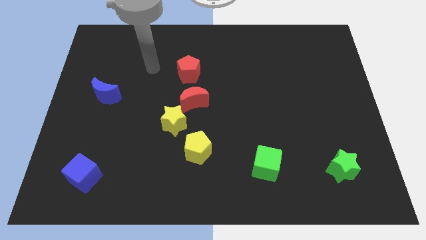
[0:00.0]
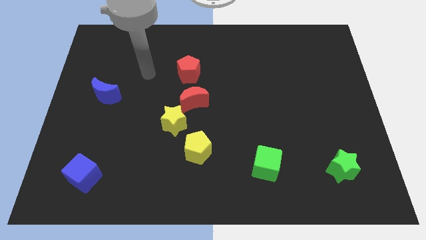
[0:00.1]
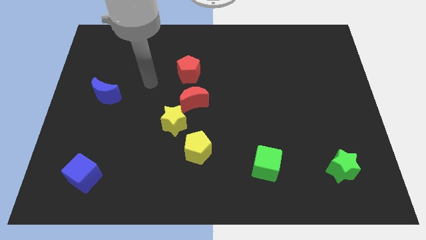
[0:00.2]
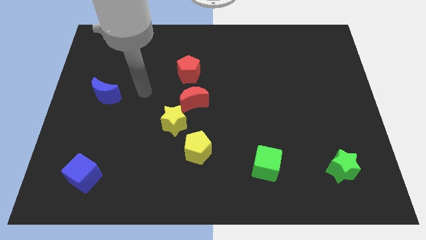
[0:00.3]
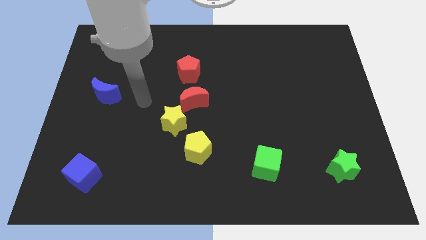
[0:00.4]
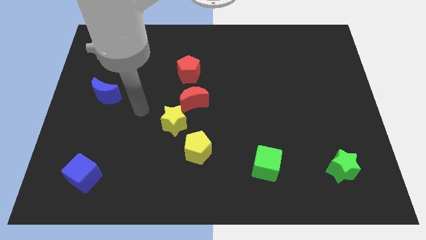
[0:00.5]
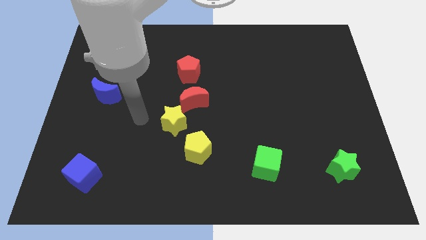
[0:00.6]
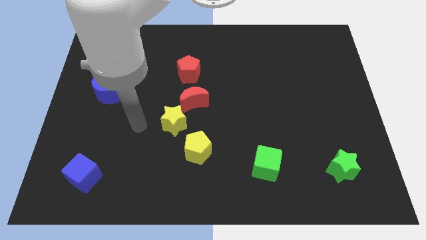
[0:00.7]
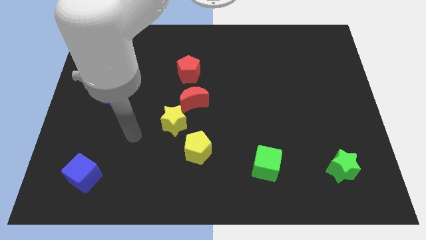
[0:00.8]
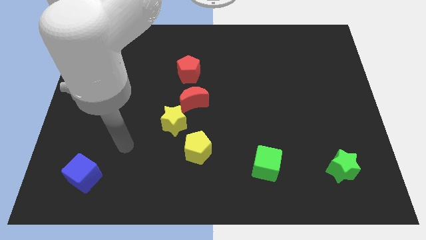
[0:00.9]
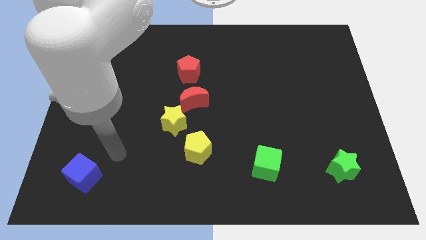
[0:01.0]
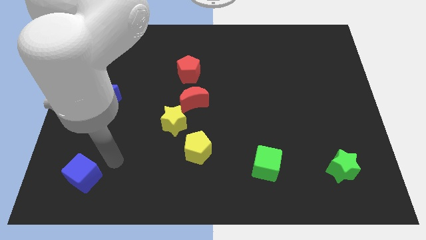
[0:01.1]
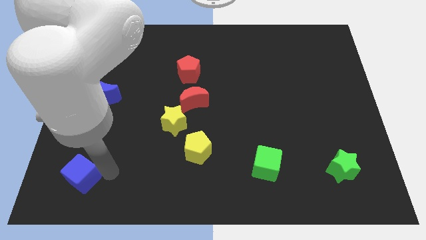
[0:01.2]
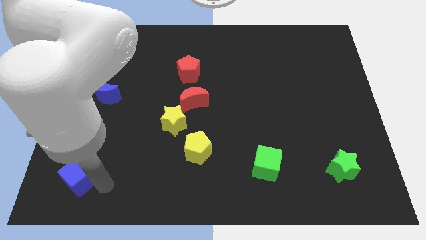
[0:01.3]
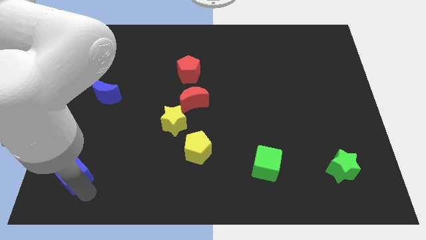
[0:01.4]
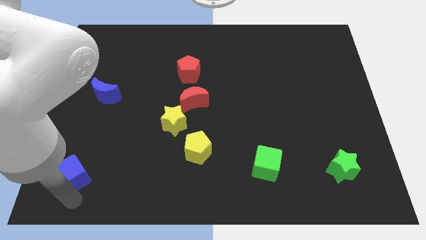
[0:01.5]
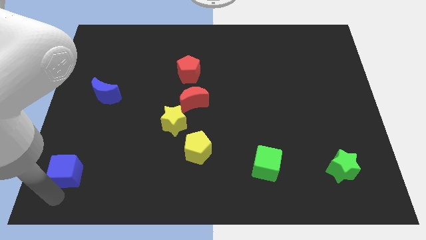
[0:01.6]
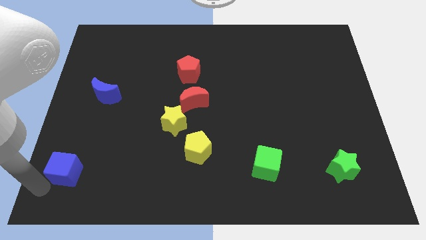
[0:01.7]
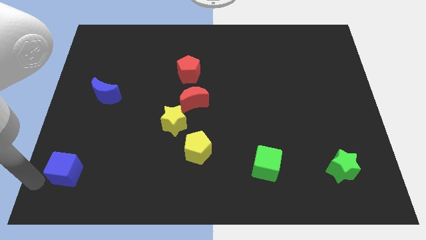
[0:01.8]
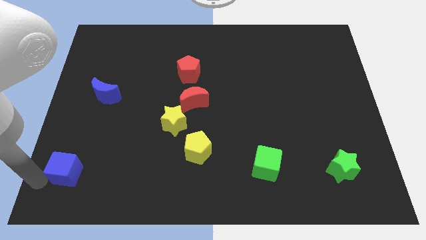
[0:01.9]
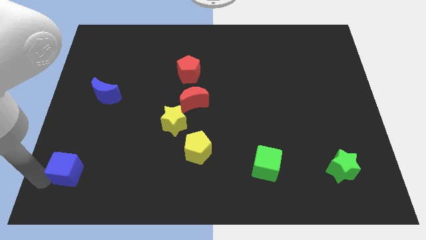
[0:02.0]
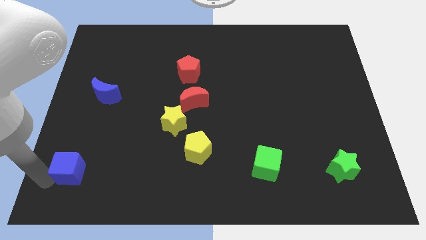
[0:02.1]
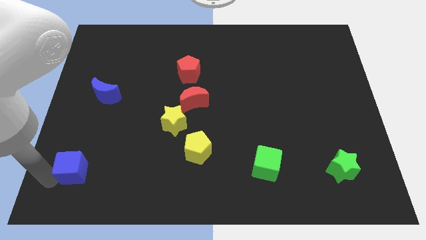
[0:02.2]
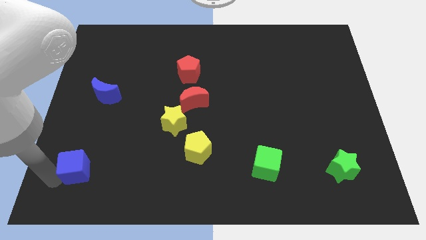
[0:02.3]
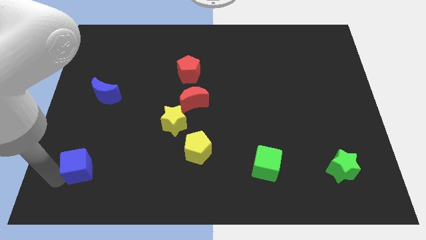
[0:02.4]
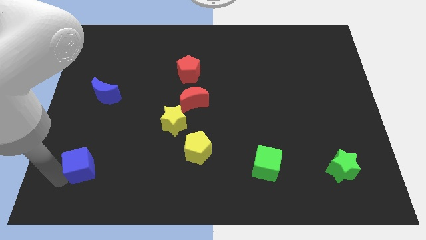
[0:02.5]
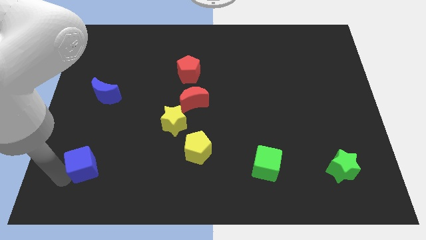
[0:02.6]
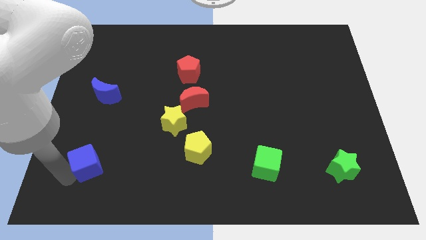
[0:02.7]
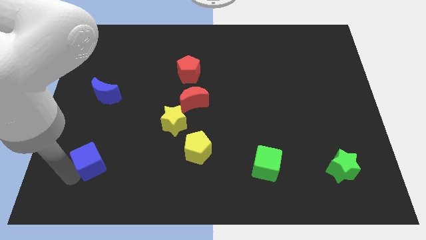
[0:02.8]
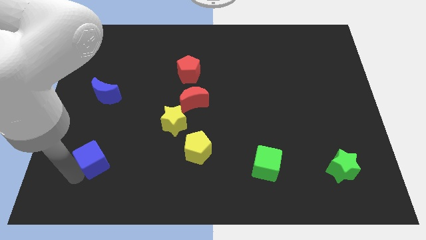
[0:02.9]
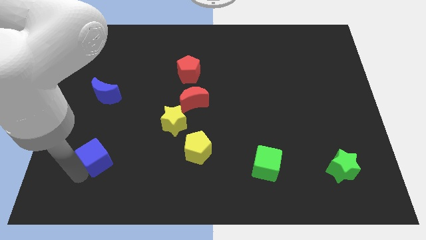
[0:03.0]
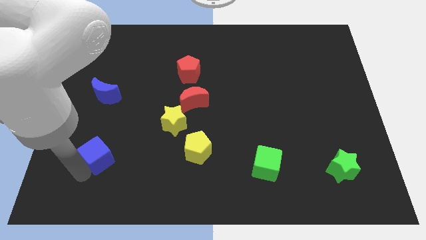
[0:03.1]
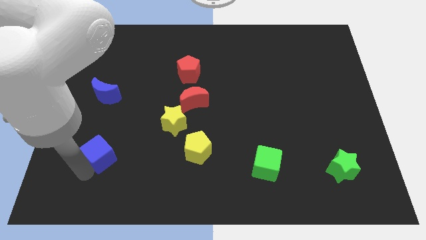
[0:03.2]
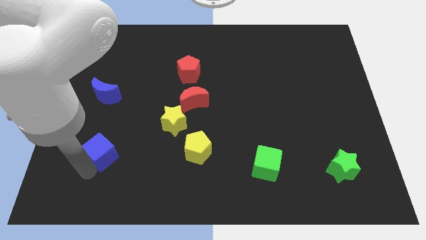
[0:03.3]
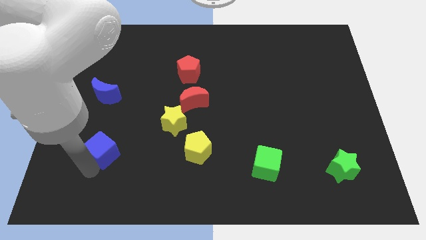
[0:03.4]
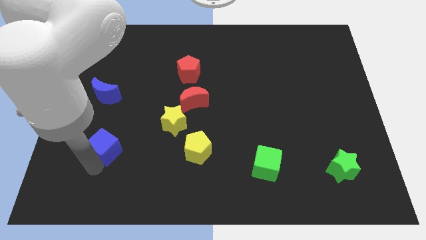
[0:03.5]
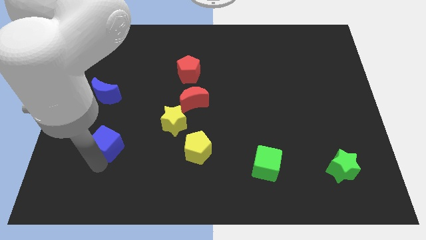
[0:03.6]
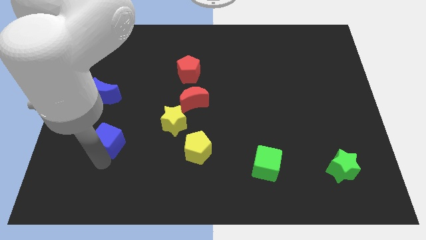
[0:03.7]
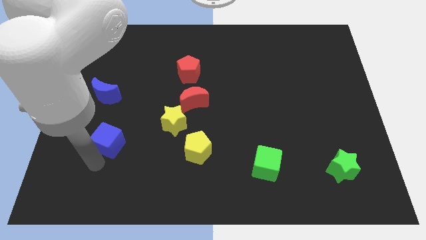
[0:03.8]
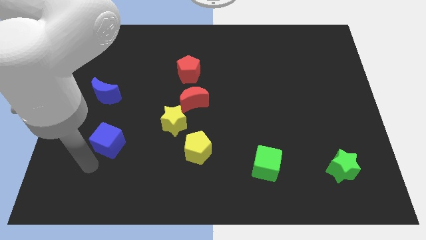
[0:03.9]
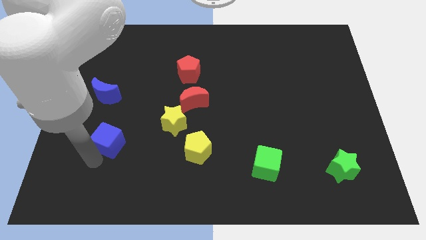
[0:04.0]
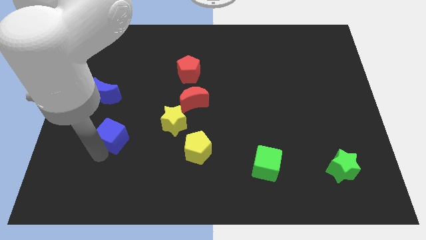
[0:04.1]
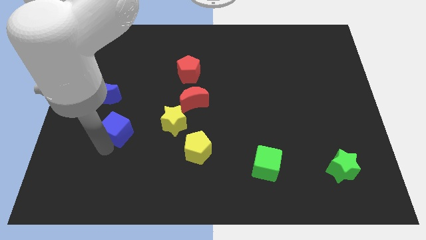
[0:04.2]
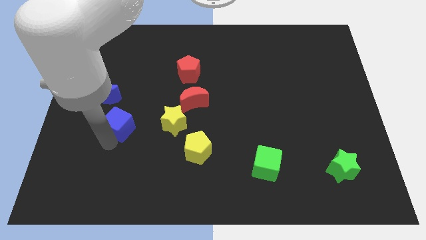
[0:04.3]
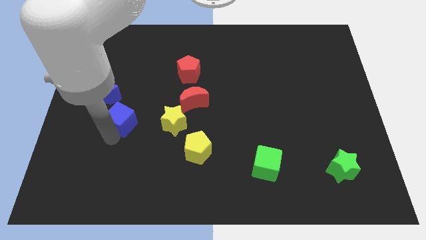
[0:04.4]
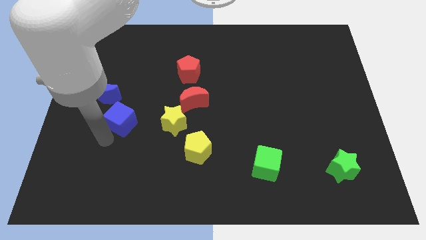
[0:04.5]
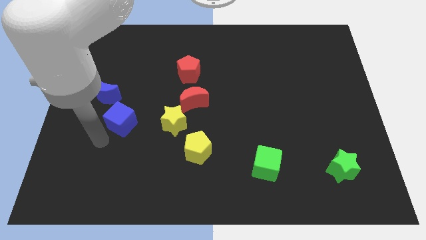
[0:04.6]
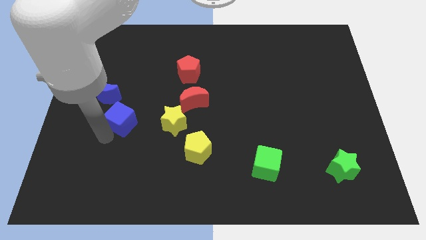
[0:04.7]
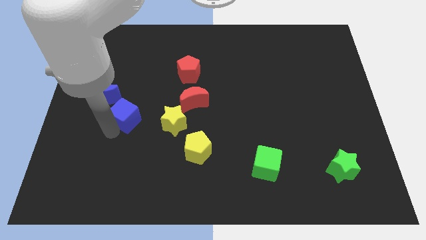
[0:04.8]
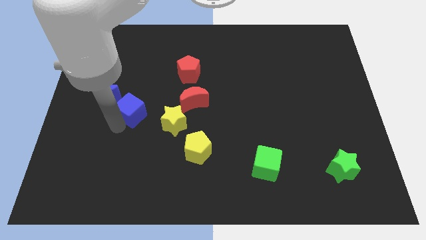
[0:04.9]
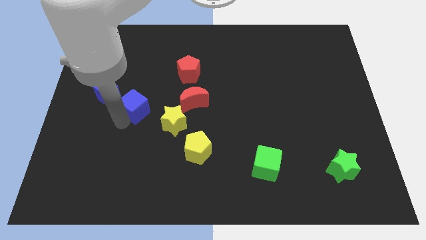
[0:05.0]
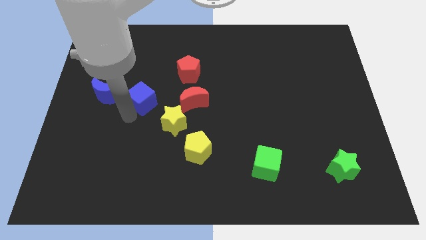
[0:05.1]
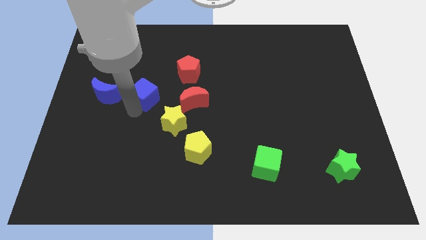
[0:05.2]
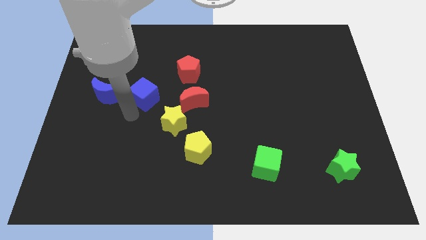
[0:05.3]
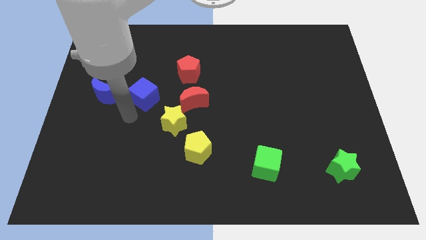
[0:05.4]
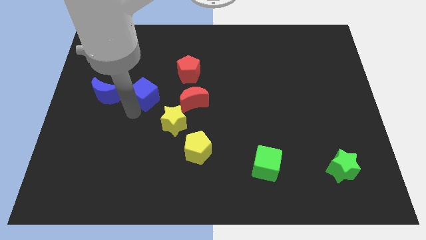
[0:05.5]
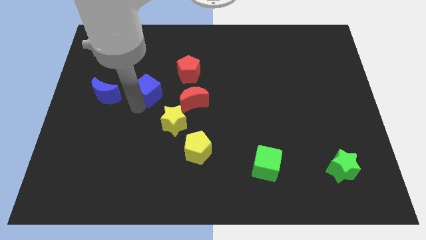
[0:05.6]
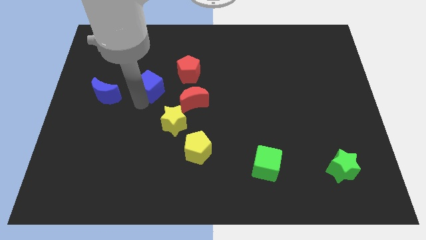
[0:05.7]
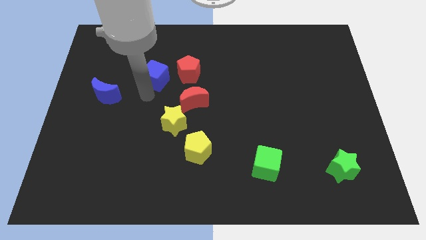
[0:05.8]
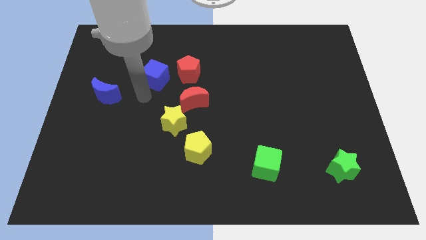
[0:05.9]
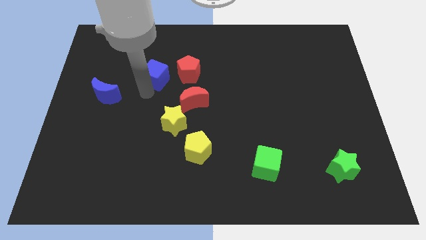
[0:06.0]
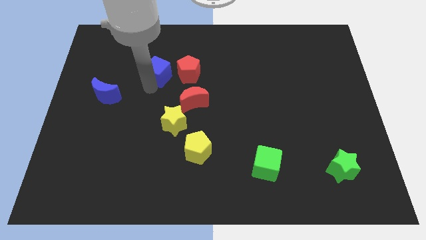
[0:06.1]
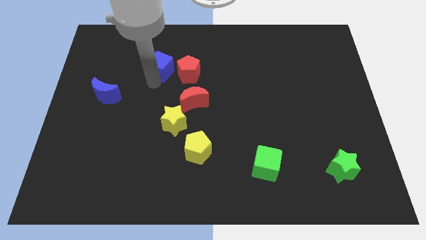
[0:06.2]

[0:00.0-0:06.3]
move the blue cube to the top left of the red pentagon

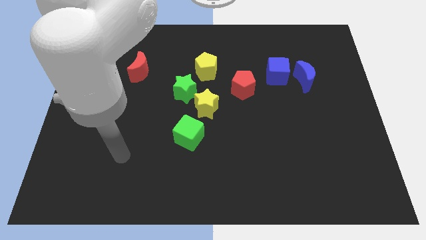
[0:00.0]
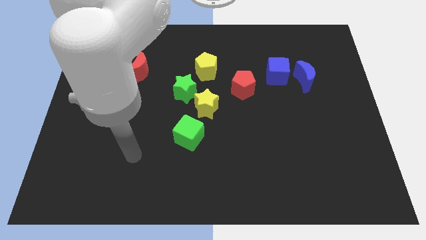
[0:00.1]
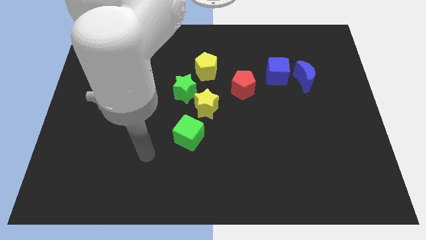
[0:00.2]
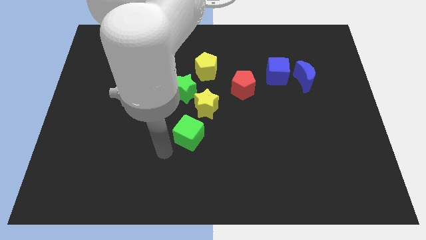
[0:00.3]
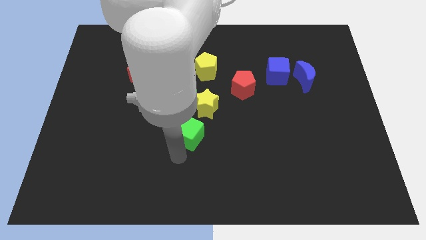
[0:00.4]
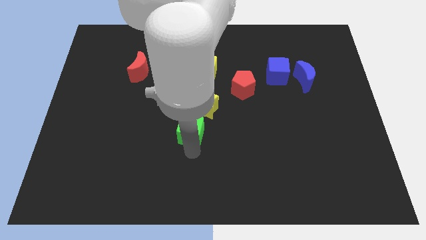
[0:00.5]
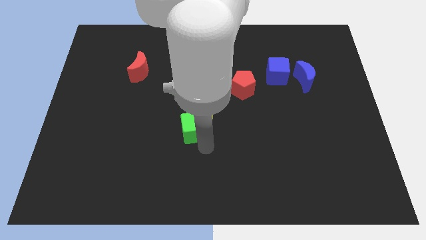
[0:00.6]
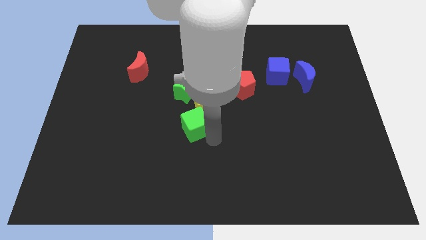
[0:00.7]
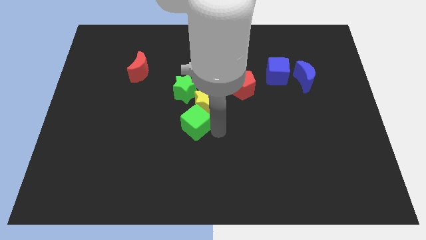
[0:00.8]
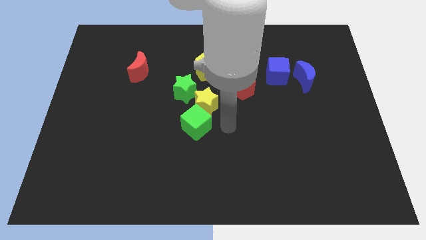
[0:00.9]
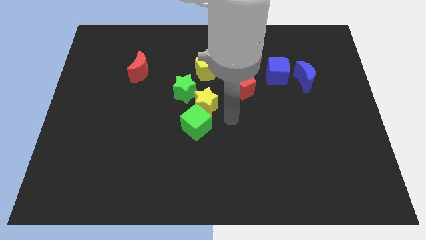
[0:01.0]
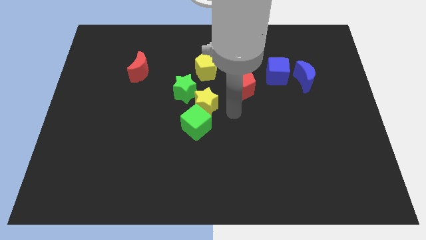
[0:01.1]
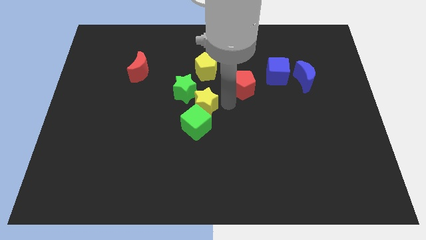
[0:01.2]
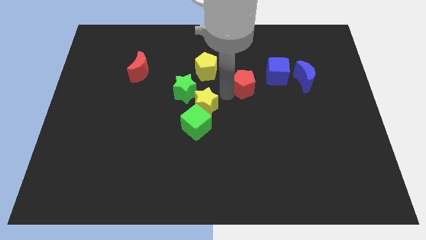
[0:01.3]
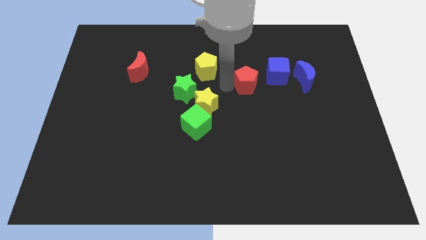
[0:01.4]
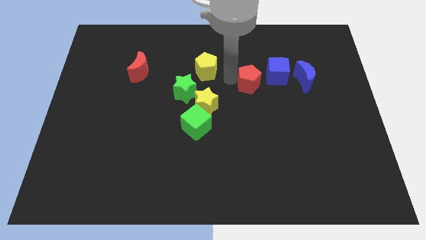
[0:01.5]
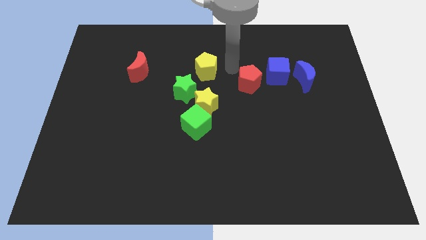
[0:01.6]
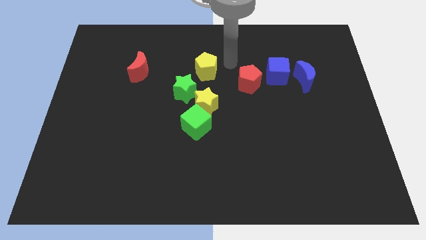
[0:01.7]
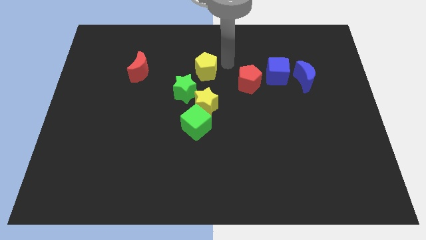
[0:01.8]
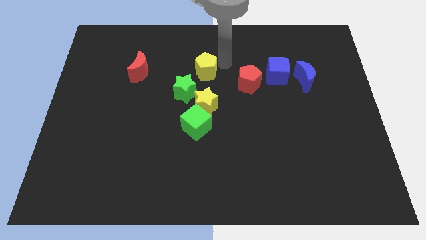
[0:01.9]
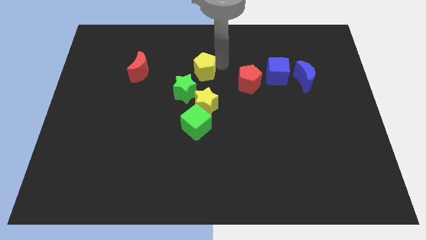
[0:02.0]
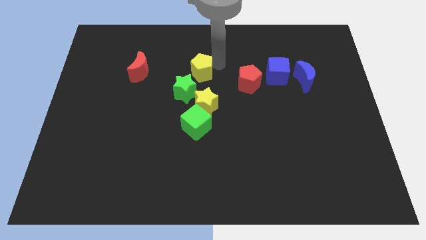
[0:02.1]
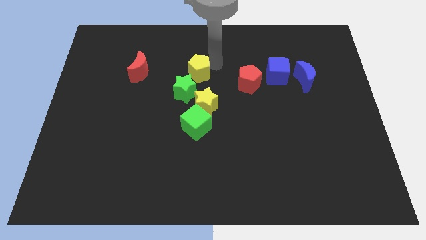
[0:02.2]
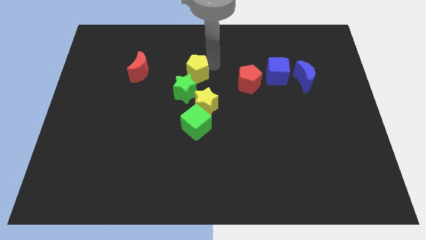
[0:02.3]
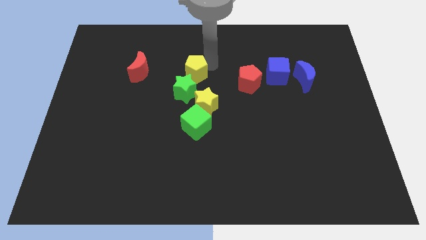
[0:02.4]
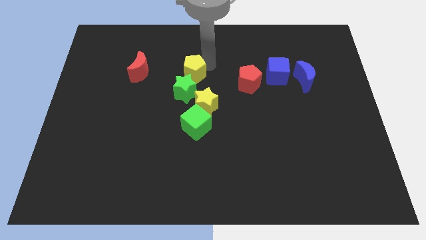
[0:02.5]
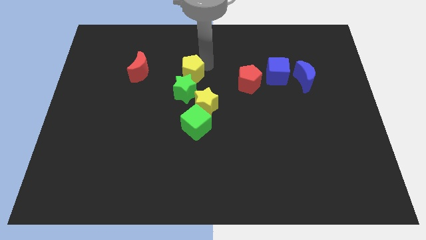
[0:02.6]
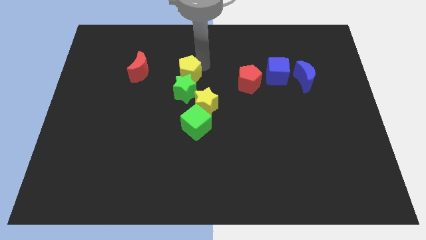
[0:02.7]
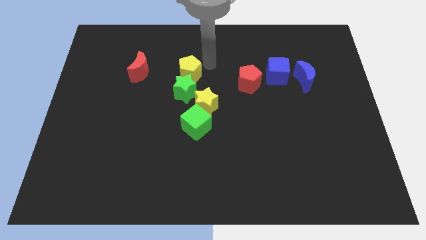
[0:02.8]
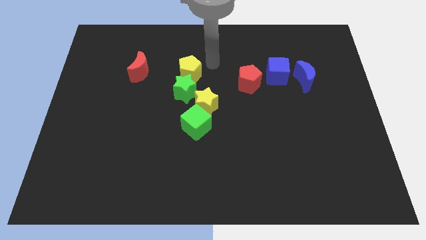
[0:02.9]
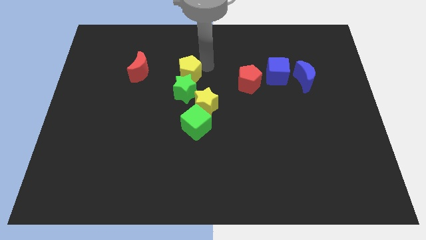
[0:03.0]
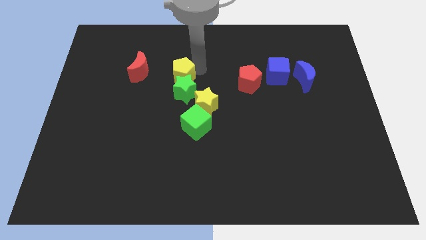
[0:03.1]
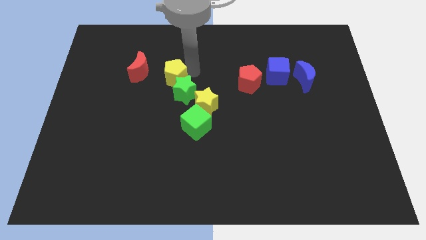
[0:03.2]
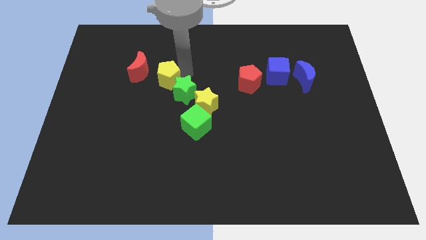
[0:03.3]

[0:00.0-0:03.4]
put the yellow pentagon to the left of the green star
